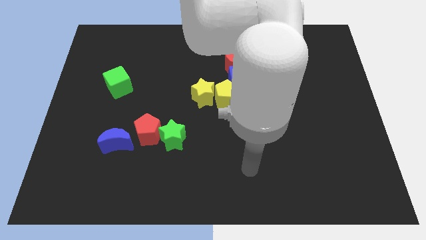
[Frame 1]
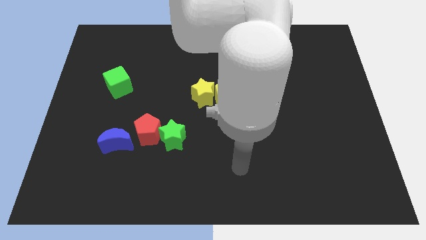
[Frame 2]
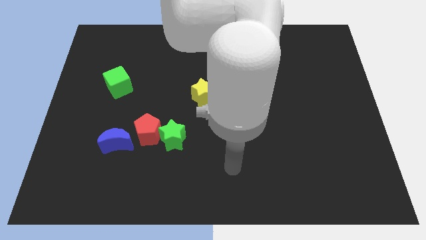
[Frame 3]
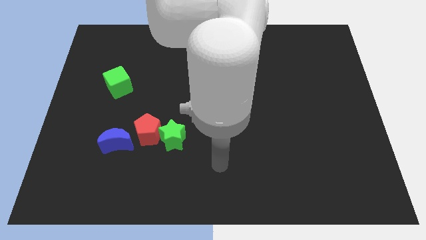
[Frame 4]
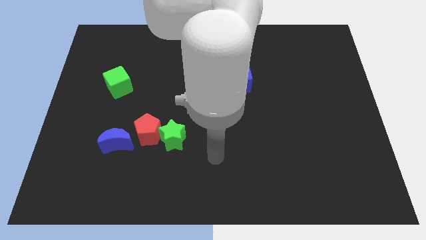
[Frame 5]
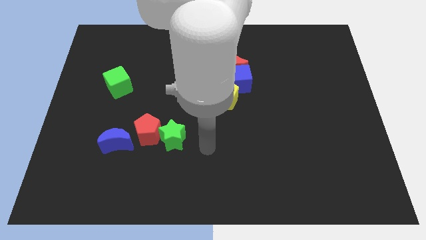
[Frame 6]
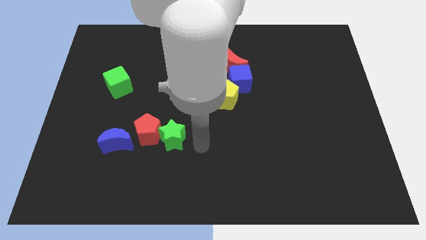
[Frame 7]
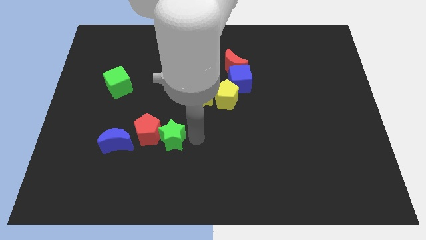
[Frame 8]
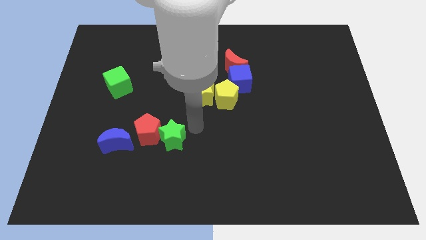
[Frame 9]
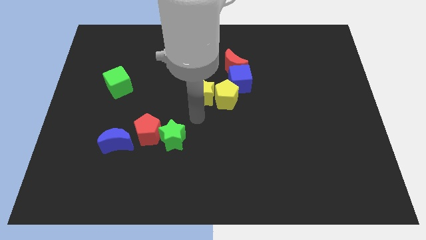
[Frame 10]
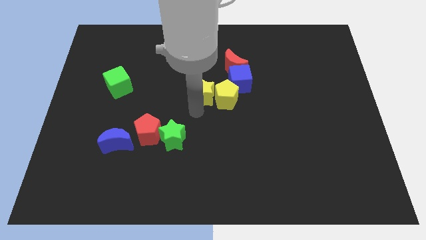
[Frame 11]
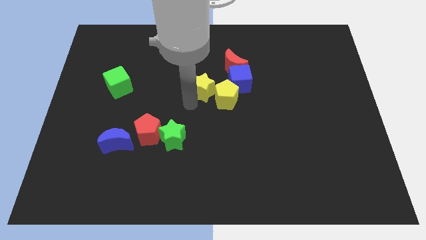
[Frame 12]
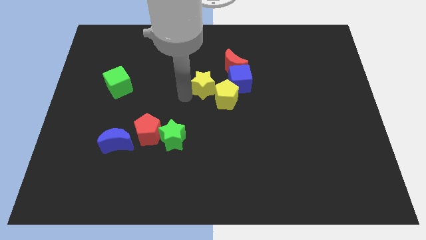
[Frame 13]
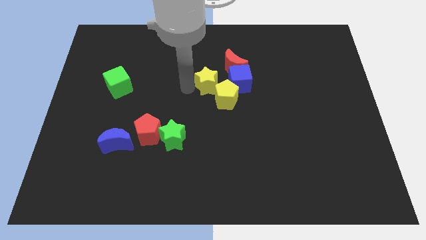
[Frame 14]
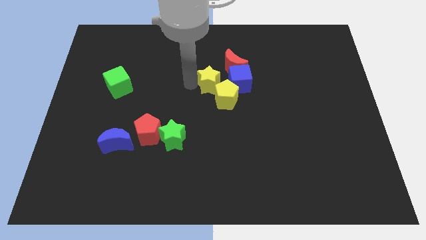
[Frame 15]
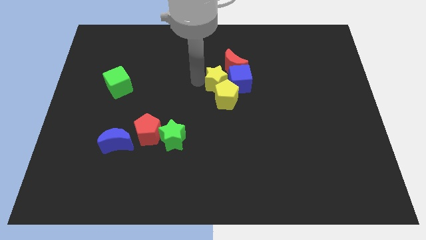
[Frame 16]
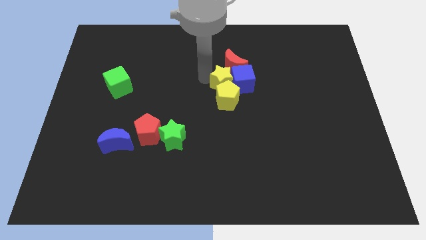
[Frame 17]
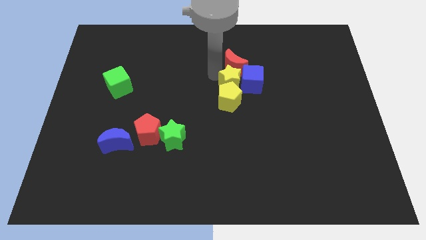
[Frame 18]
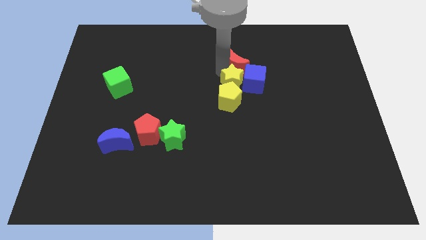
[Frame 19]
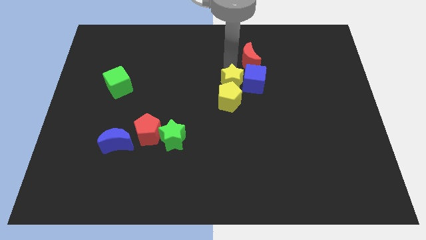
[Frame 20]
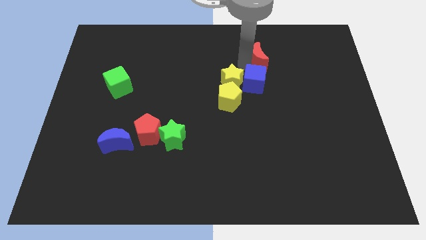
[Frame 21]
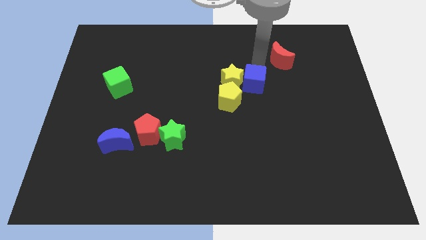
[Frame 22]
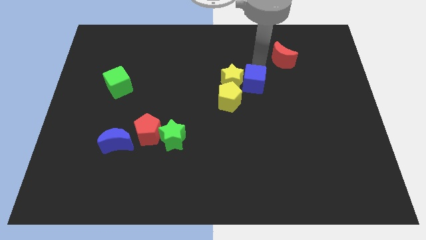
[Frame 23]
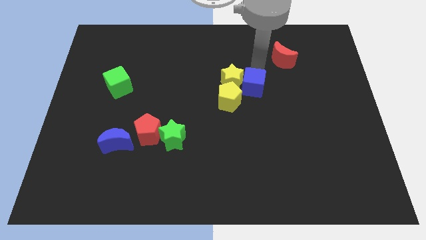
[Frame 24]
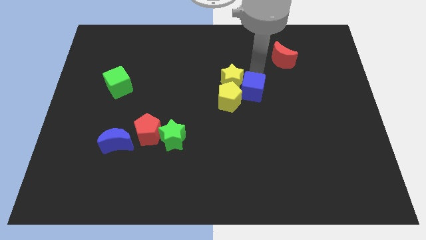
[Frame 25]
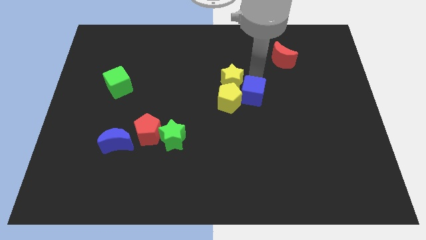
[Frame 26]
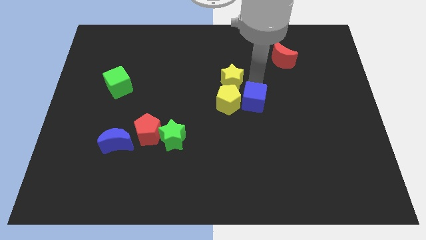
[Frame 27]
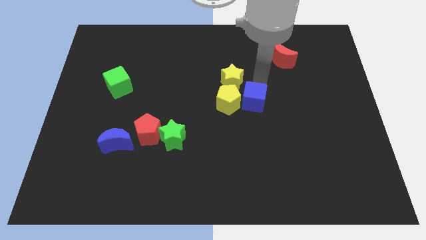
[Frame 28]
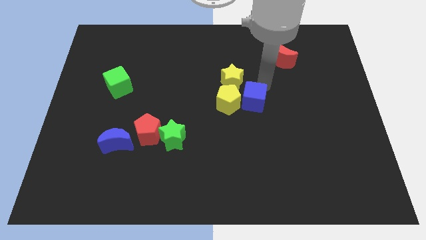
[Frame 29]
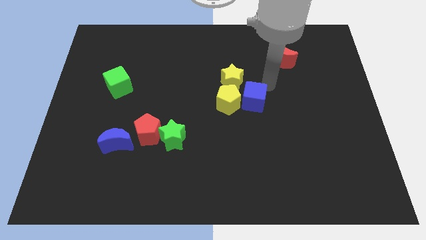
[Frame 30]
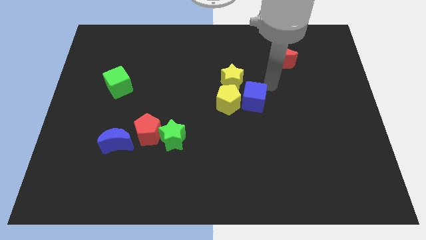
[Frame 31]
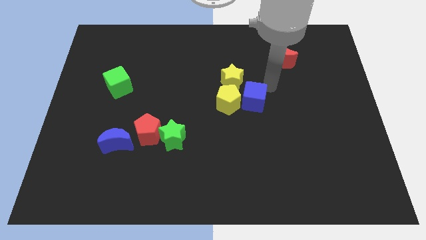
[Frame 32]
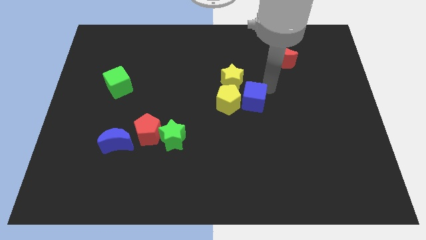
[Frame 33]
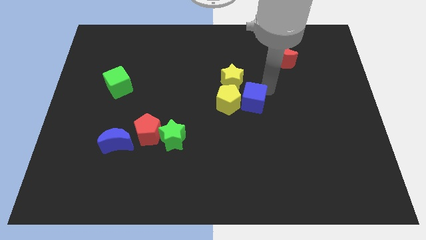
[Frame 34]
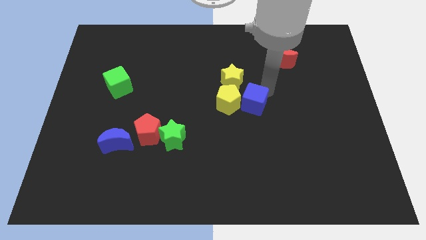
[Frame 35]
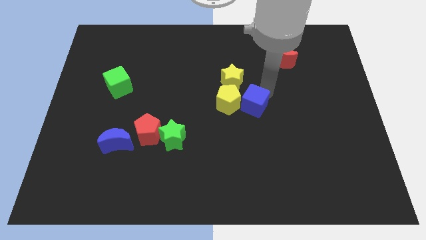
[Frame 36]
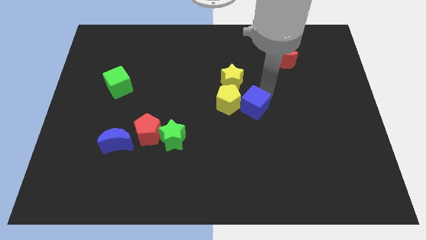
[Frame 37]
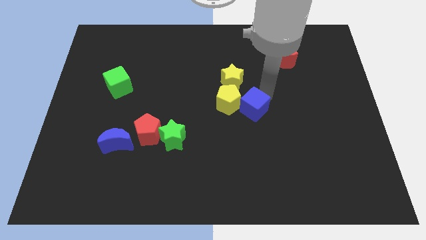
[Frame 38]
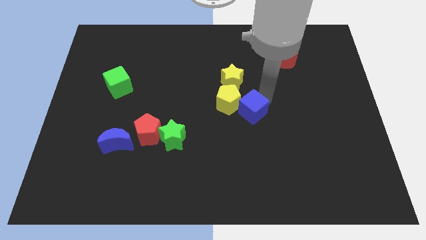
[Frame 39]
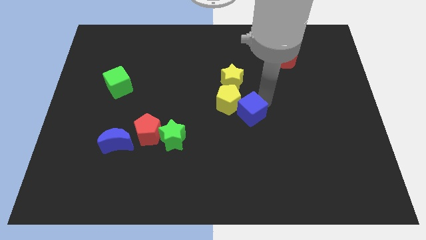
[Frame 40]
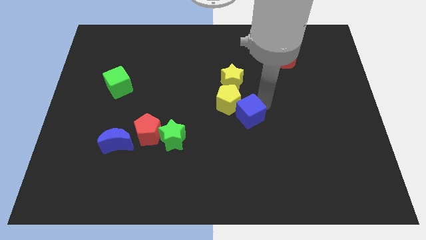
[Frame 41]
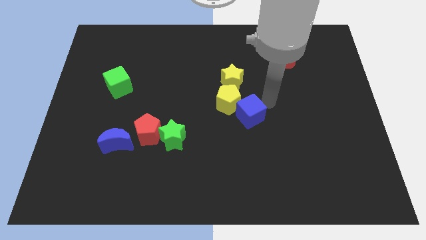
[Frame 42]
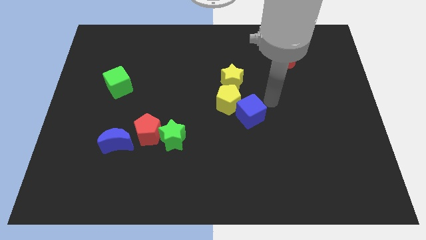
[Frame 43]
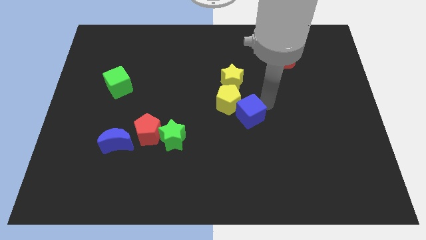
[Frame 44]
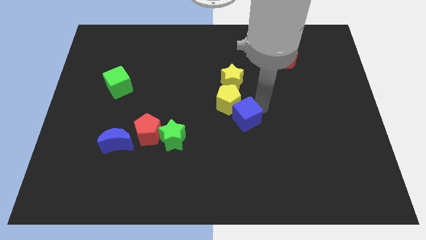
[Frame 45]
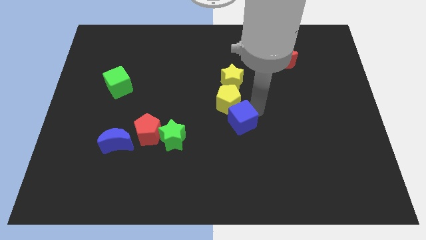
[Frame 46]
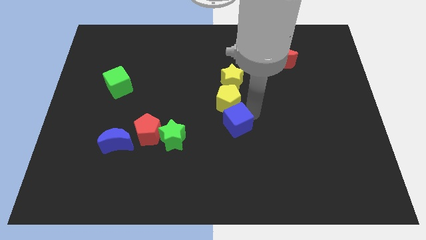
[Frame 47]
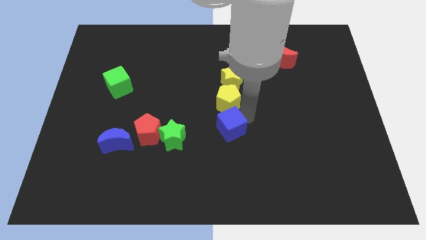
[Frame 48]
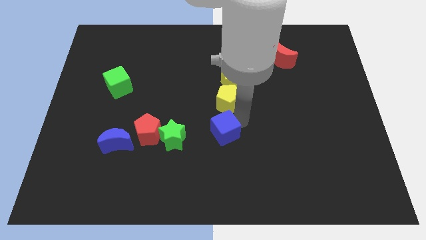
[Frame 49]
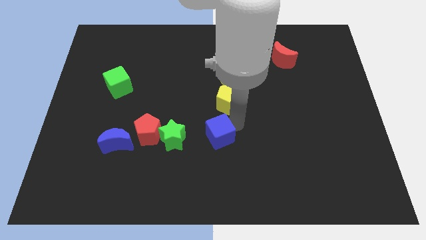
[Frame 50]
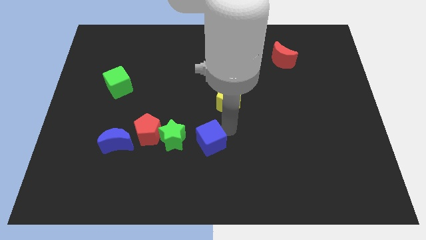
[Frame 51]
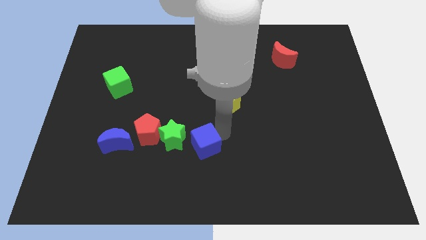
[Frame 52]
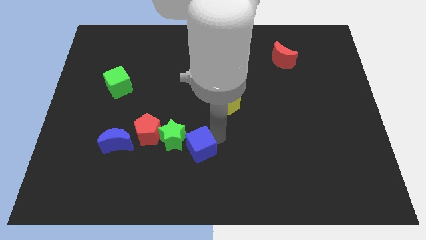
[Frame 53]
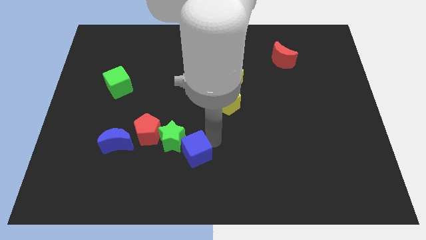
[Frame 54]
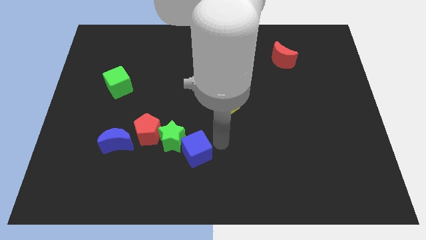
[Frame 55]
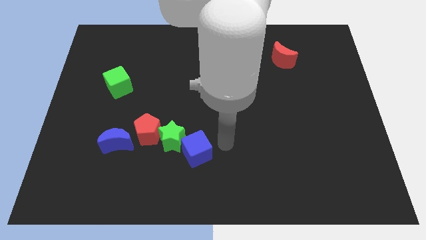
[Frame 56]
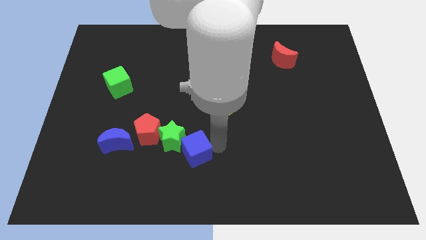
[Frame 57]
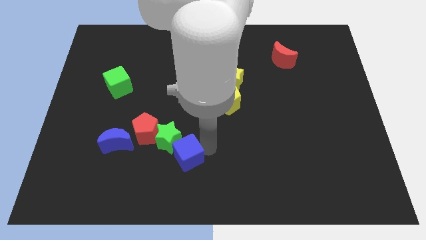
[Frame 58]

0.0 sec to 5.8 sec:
move the blue cube downwards and then to the left

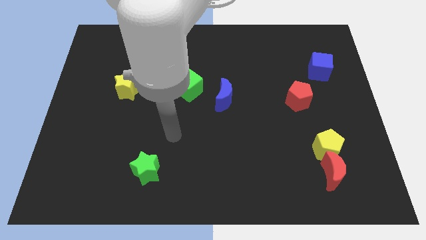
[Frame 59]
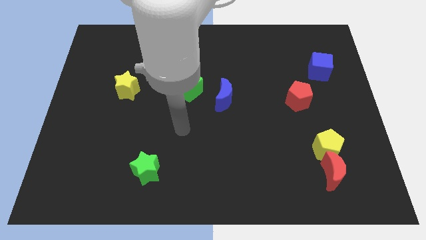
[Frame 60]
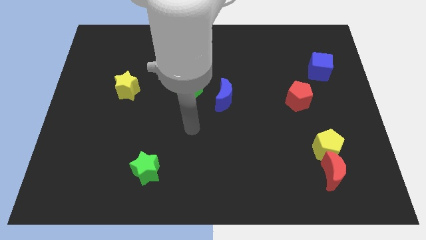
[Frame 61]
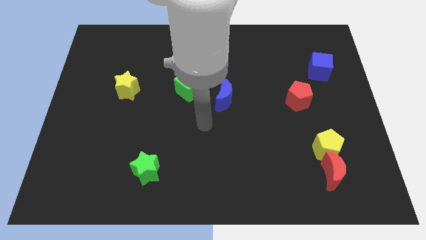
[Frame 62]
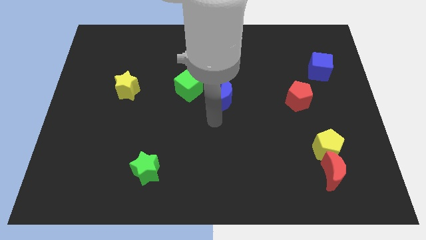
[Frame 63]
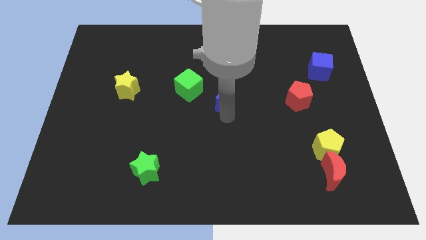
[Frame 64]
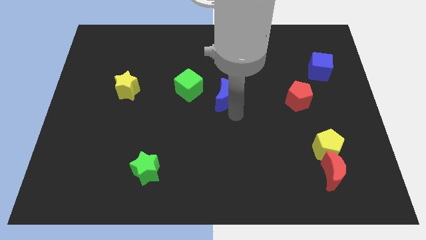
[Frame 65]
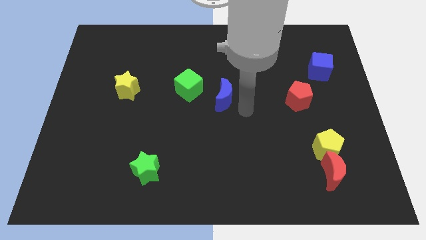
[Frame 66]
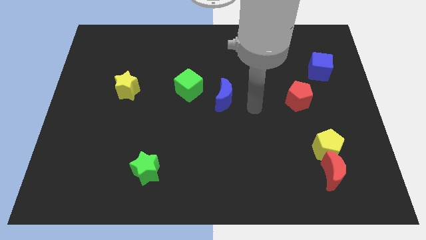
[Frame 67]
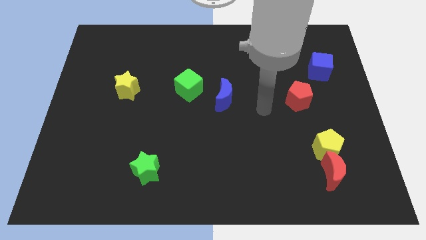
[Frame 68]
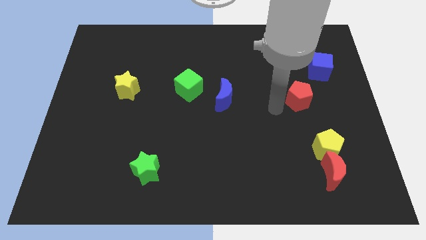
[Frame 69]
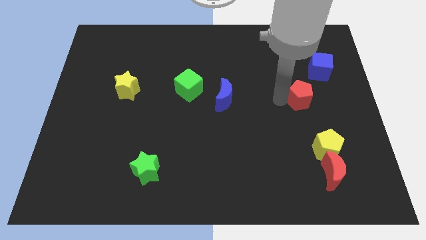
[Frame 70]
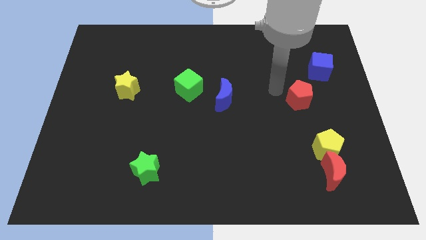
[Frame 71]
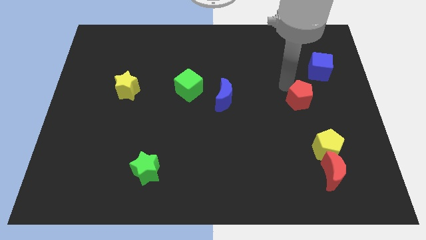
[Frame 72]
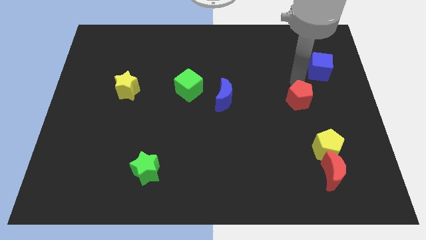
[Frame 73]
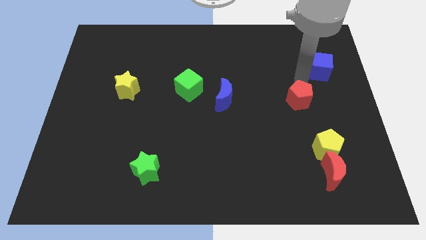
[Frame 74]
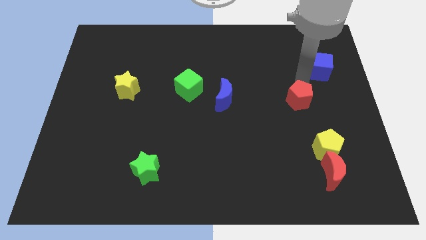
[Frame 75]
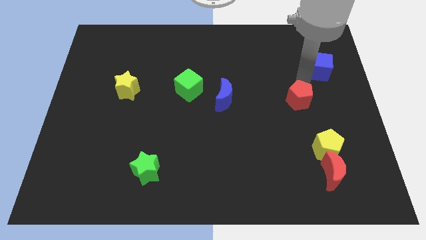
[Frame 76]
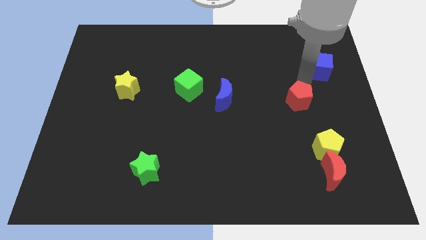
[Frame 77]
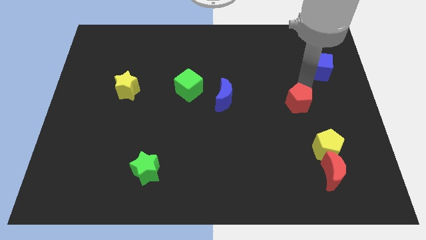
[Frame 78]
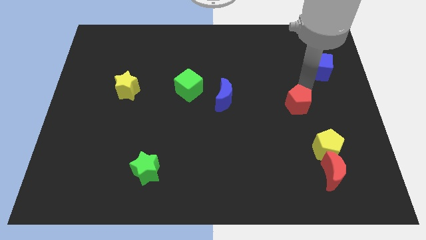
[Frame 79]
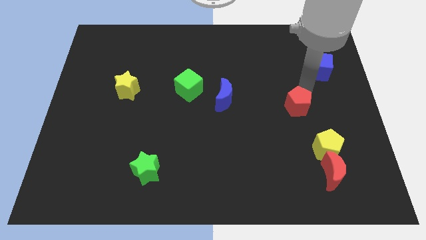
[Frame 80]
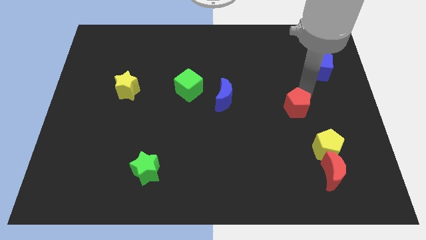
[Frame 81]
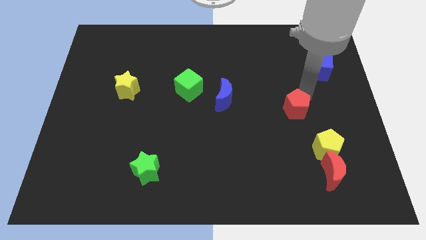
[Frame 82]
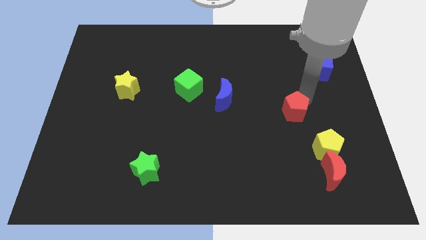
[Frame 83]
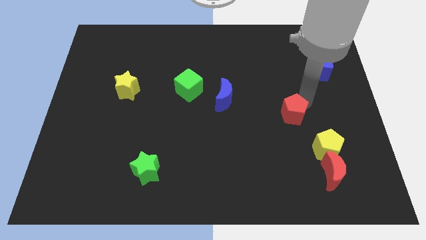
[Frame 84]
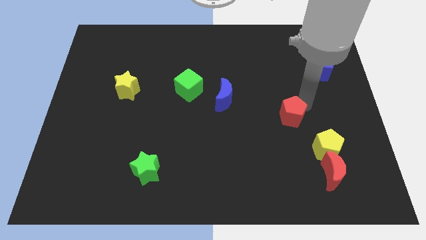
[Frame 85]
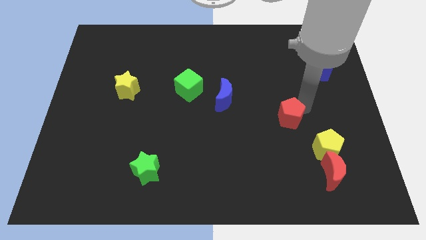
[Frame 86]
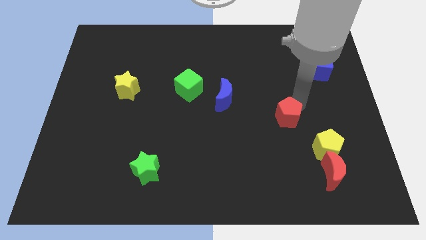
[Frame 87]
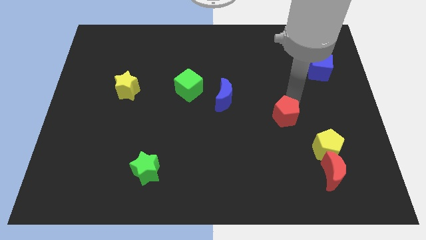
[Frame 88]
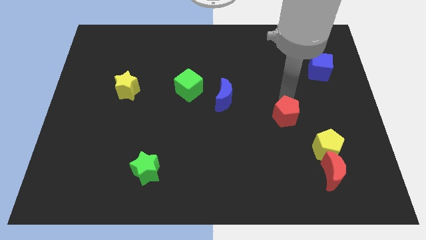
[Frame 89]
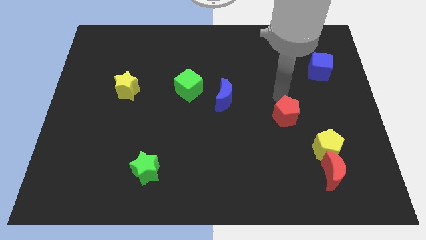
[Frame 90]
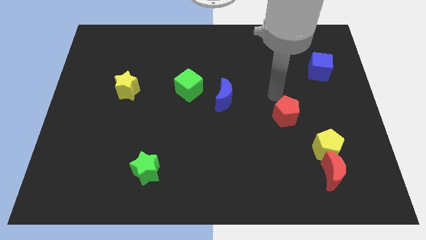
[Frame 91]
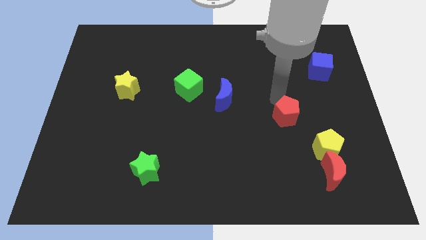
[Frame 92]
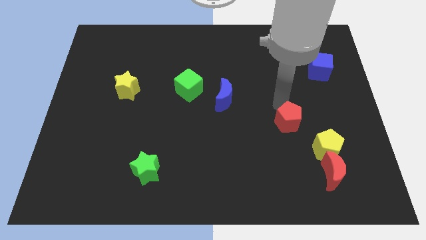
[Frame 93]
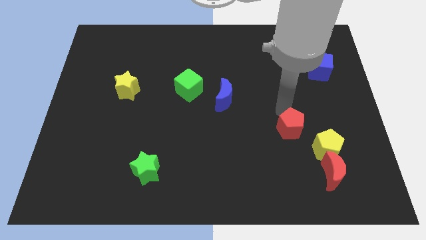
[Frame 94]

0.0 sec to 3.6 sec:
push the red pentagon slightly downwards
